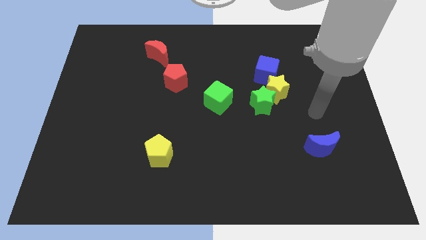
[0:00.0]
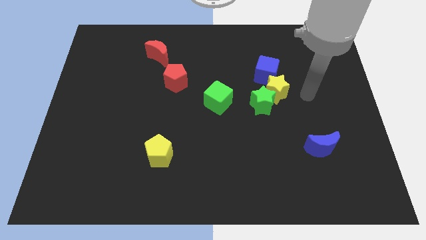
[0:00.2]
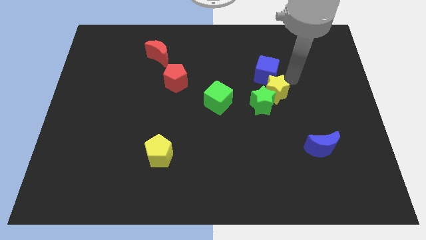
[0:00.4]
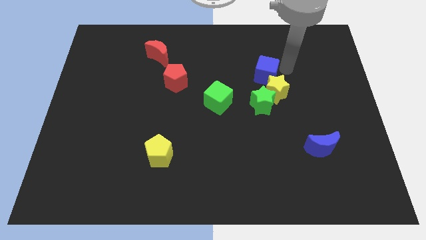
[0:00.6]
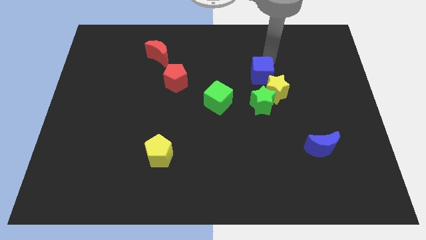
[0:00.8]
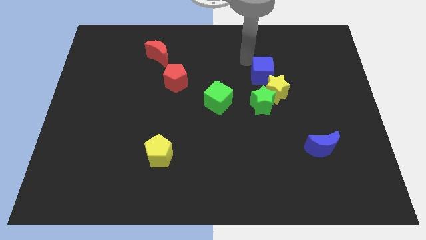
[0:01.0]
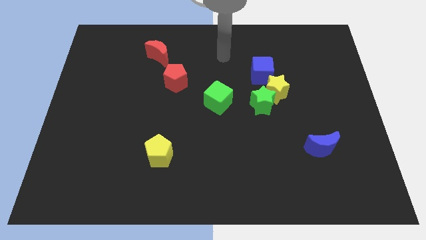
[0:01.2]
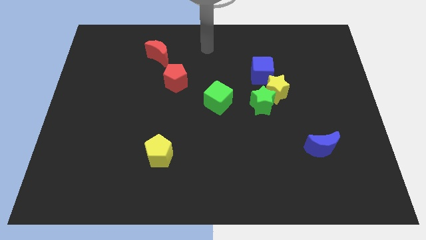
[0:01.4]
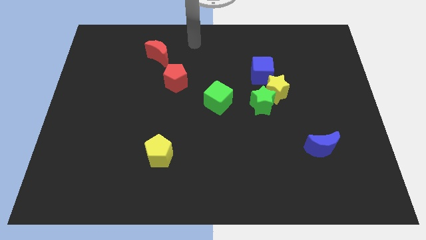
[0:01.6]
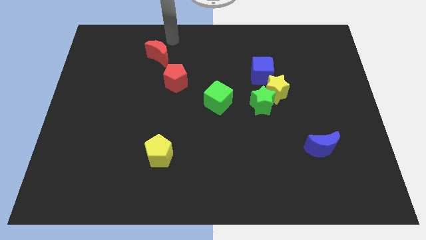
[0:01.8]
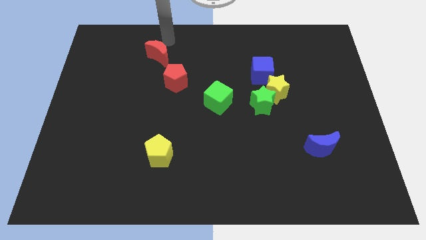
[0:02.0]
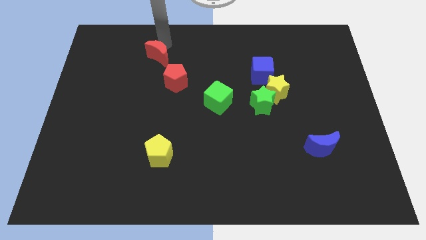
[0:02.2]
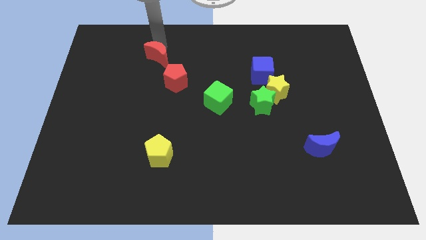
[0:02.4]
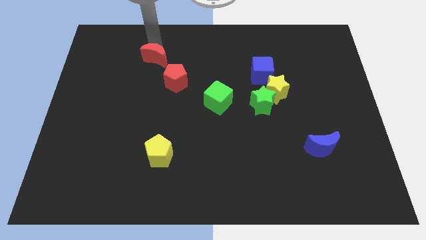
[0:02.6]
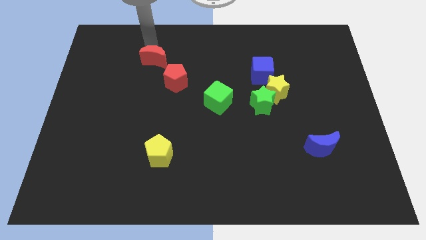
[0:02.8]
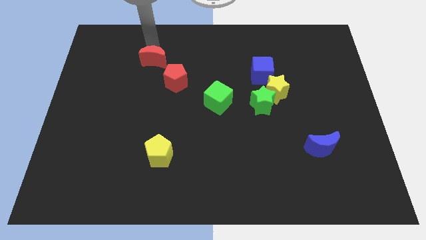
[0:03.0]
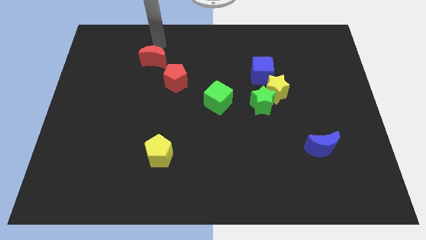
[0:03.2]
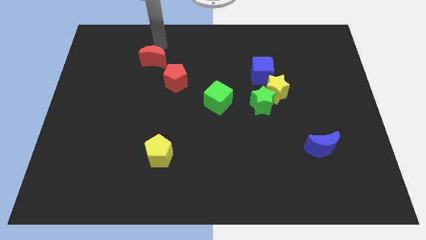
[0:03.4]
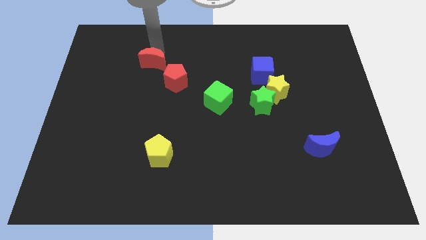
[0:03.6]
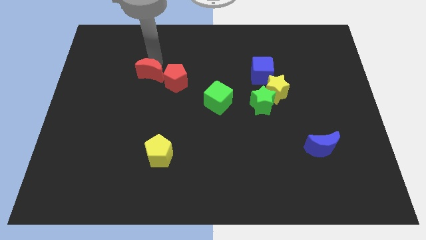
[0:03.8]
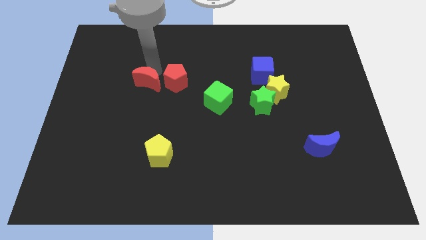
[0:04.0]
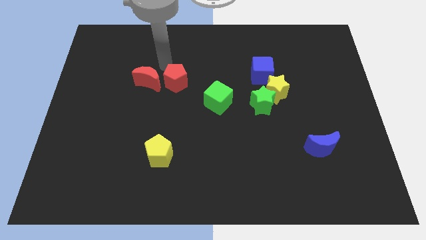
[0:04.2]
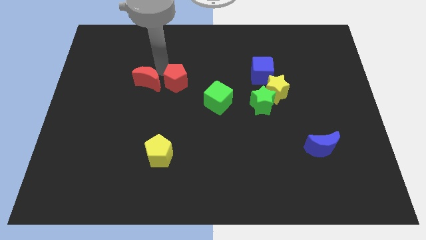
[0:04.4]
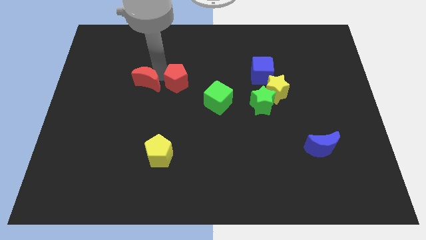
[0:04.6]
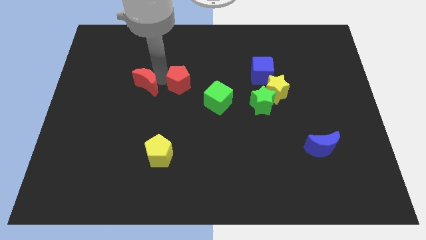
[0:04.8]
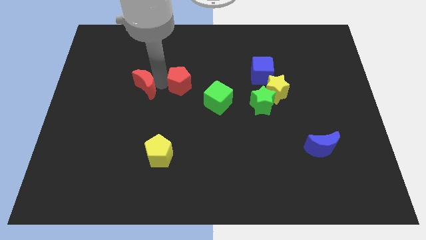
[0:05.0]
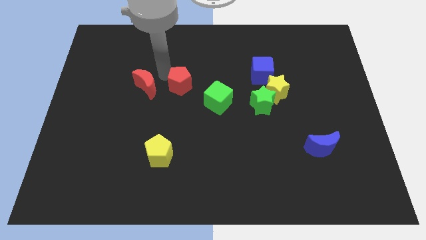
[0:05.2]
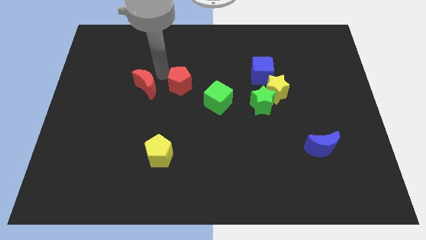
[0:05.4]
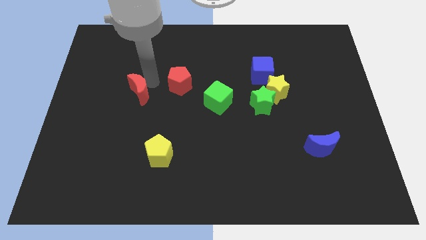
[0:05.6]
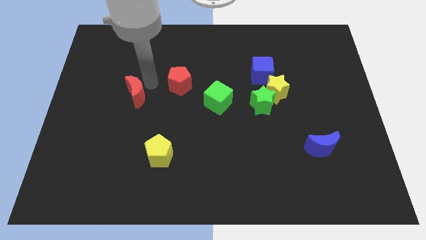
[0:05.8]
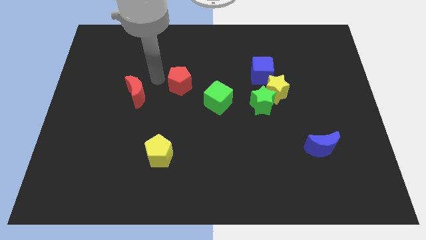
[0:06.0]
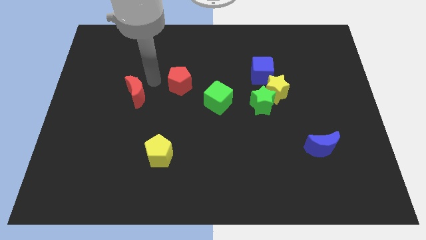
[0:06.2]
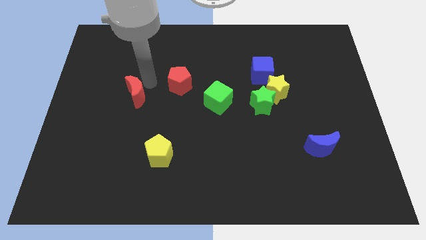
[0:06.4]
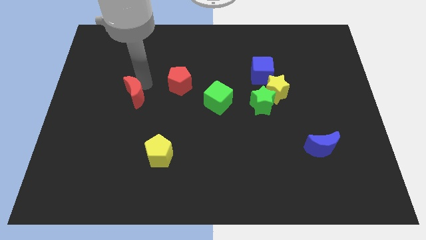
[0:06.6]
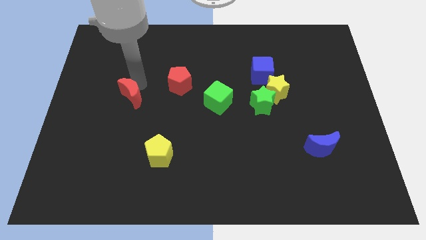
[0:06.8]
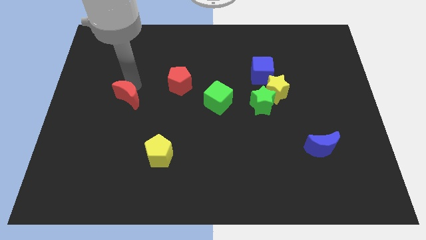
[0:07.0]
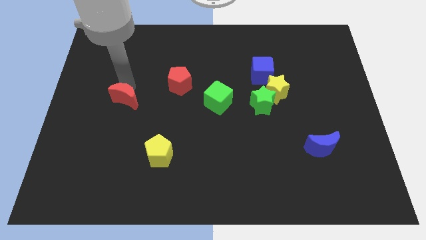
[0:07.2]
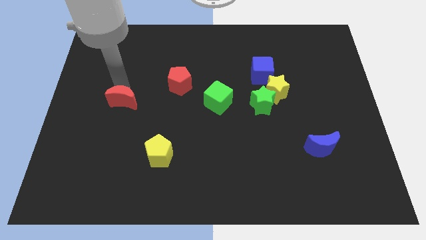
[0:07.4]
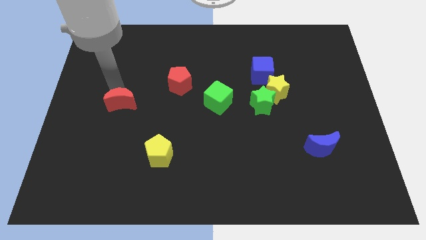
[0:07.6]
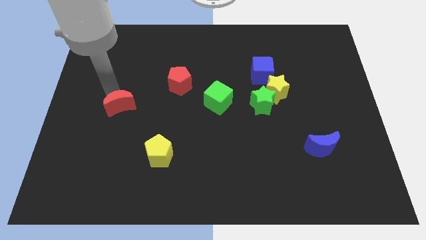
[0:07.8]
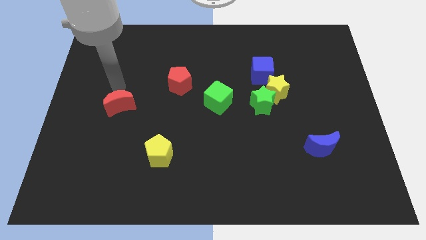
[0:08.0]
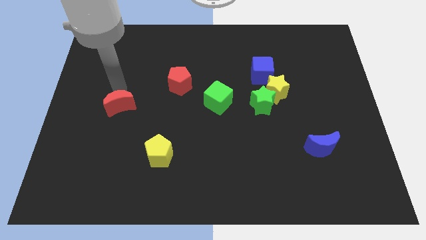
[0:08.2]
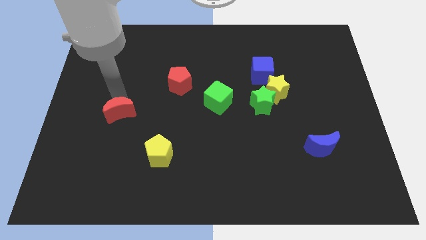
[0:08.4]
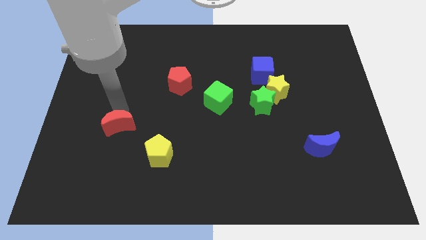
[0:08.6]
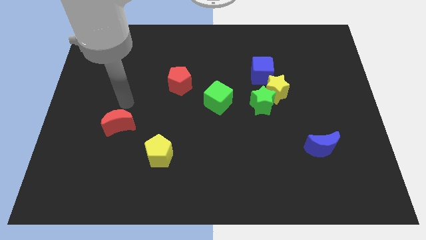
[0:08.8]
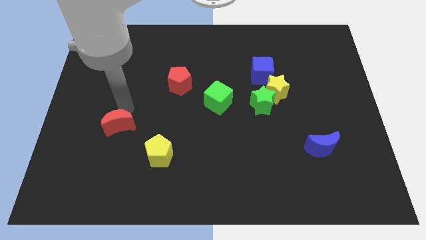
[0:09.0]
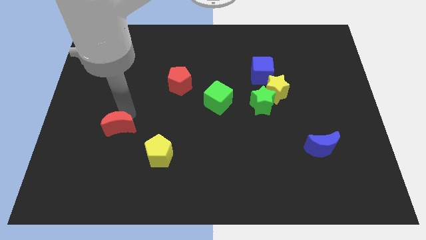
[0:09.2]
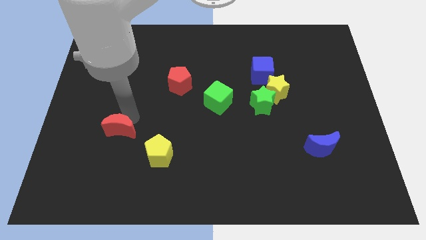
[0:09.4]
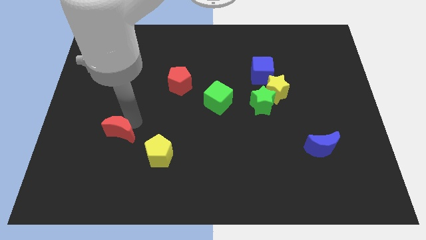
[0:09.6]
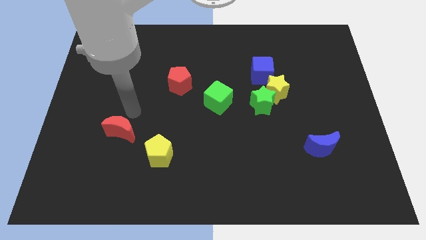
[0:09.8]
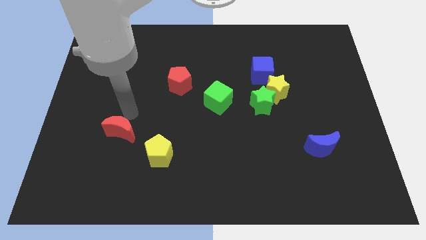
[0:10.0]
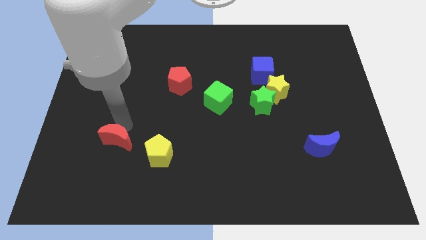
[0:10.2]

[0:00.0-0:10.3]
push the red moon just left of the yellow pentagon

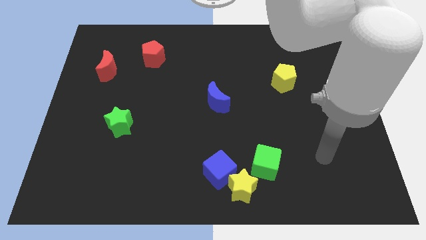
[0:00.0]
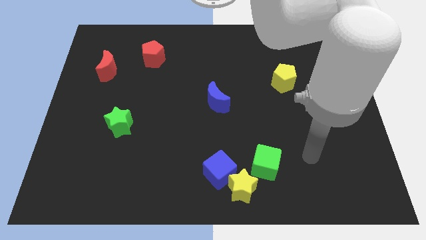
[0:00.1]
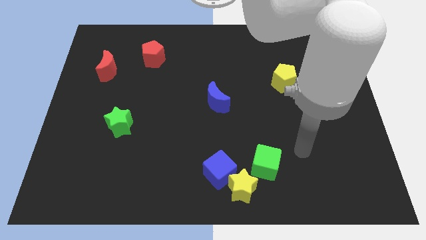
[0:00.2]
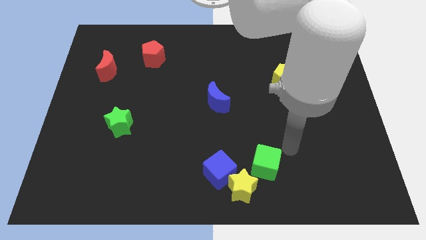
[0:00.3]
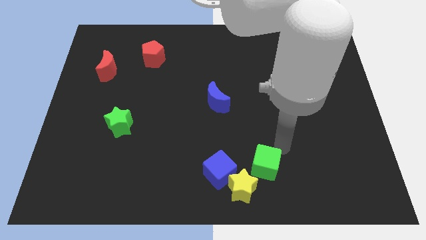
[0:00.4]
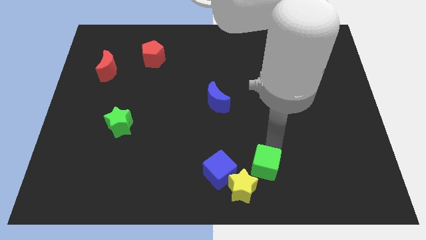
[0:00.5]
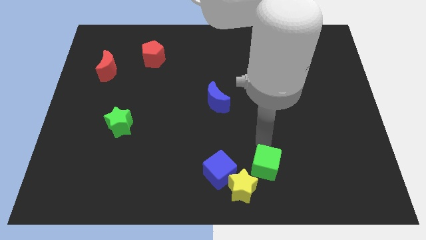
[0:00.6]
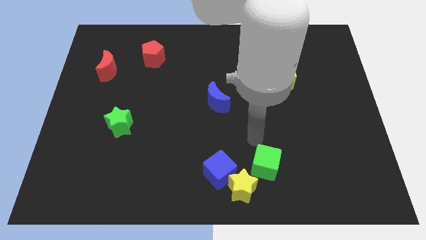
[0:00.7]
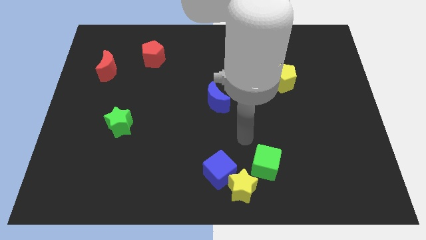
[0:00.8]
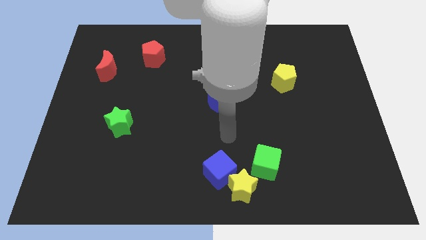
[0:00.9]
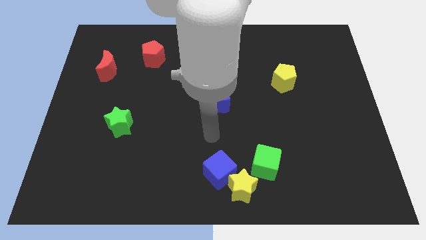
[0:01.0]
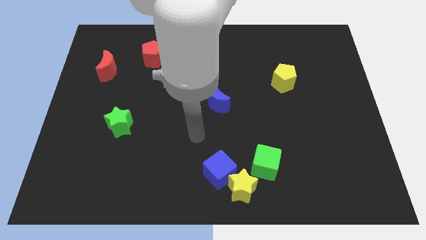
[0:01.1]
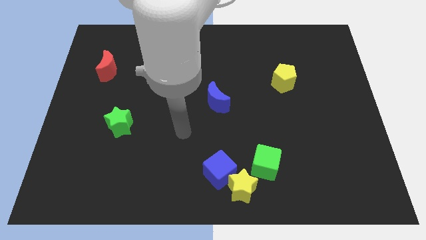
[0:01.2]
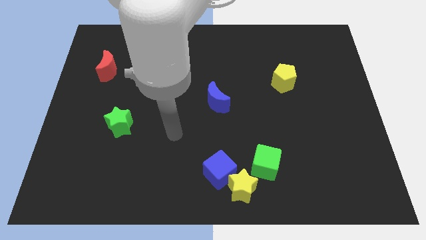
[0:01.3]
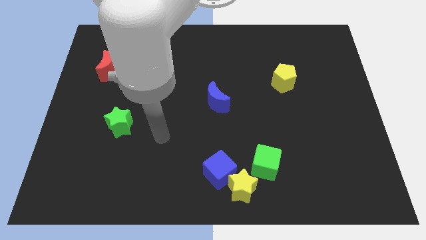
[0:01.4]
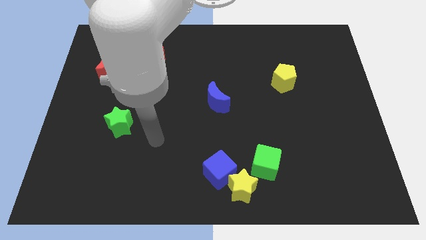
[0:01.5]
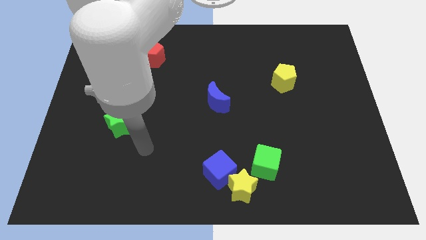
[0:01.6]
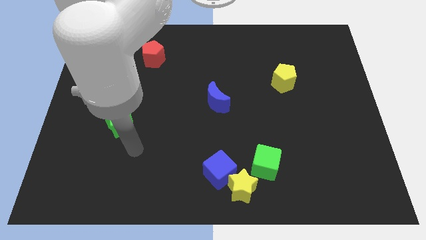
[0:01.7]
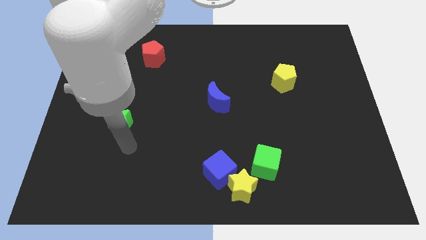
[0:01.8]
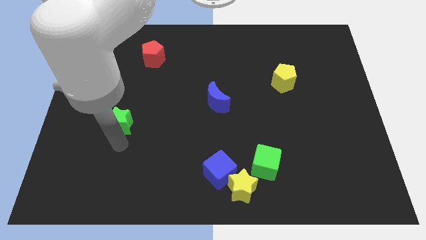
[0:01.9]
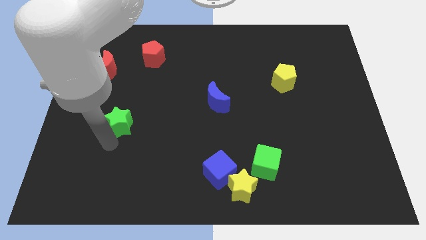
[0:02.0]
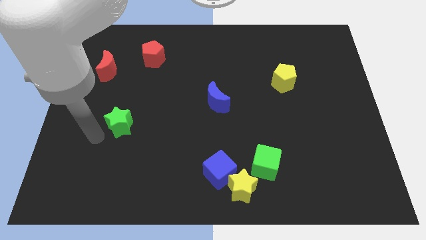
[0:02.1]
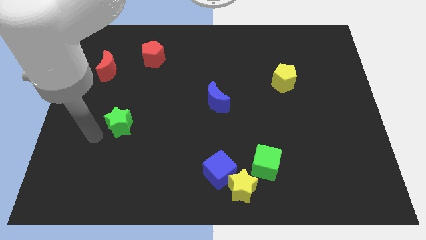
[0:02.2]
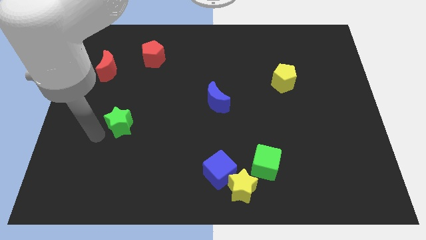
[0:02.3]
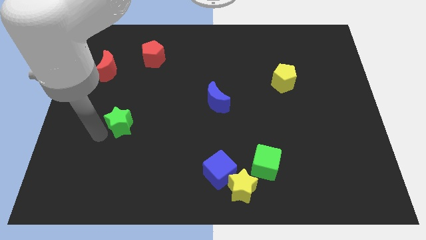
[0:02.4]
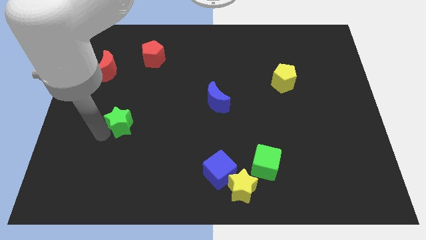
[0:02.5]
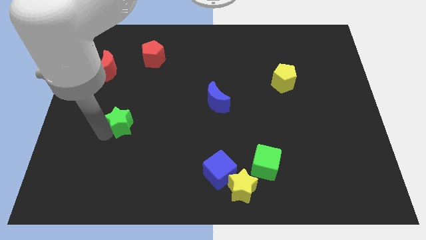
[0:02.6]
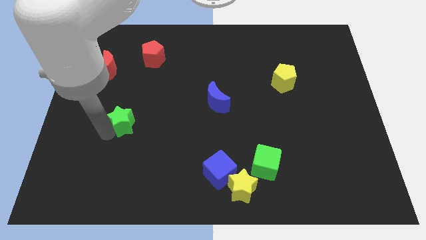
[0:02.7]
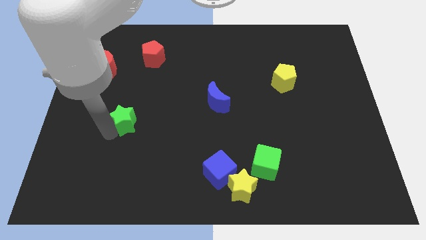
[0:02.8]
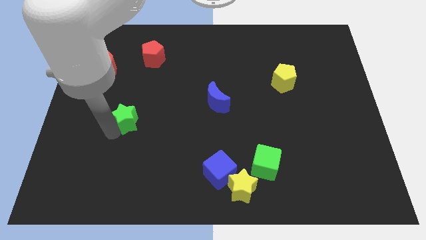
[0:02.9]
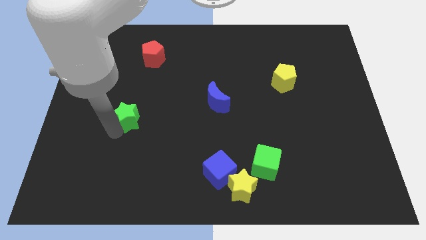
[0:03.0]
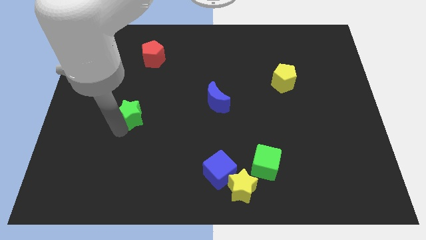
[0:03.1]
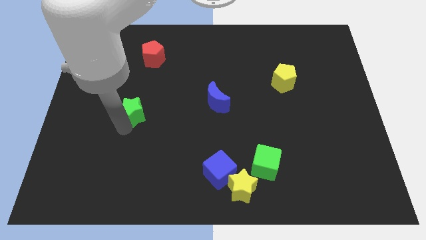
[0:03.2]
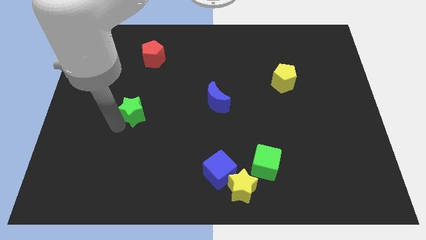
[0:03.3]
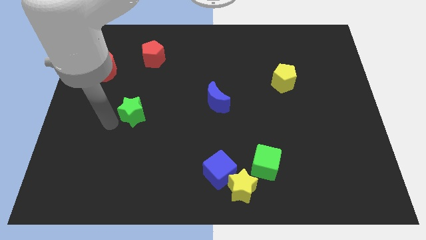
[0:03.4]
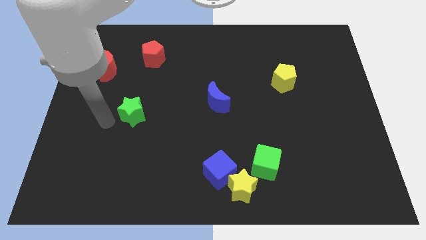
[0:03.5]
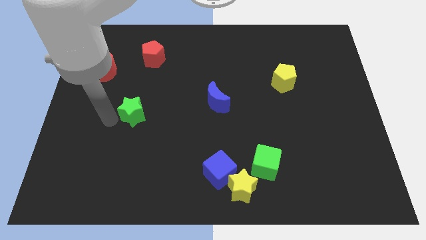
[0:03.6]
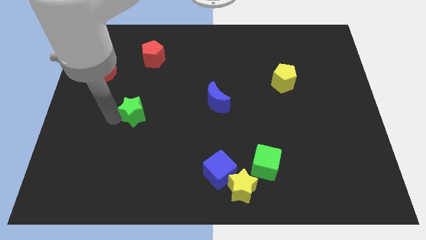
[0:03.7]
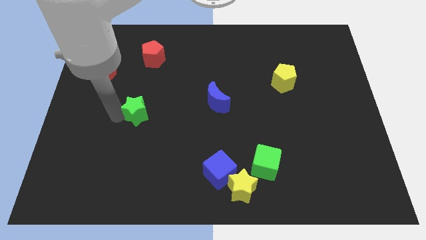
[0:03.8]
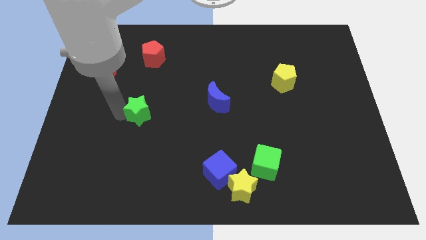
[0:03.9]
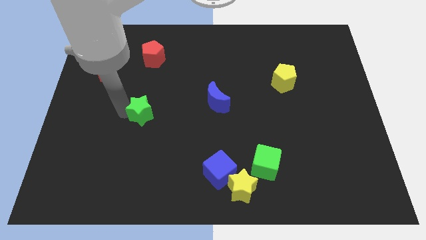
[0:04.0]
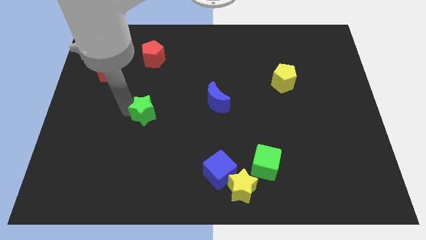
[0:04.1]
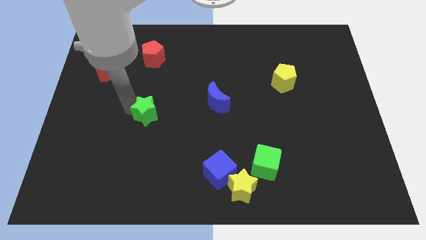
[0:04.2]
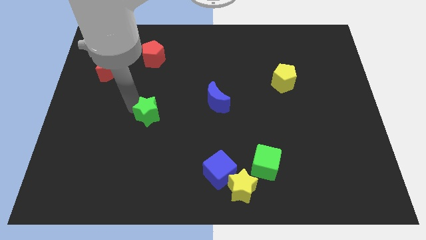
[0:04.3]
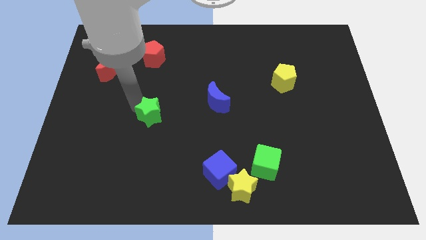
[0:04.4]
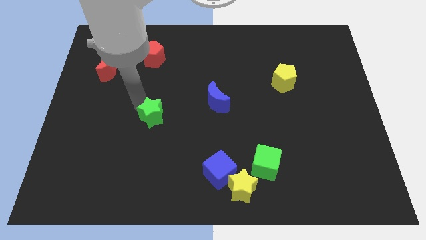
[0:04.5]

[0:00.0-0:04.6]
put the green star just left of the blue moon
